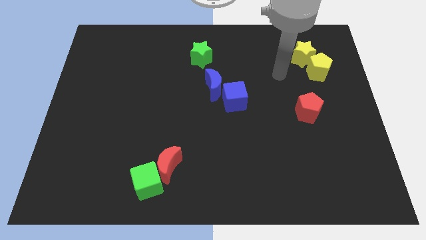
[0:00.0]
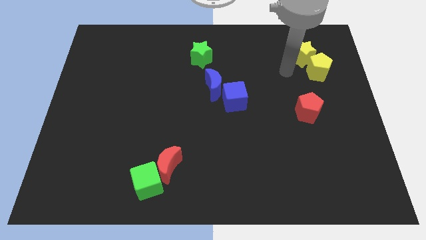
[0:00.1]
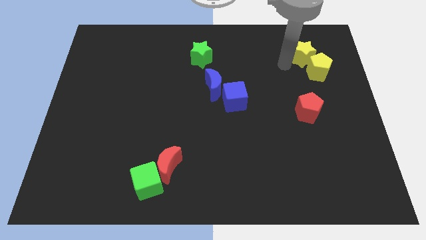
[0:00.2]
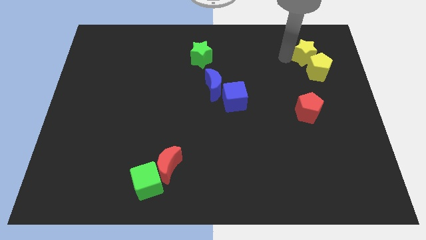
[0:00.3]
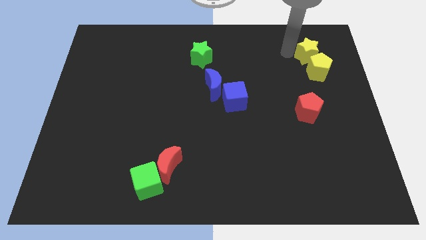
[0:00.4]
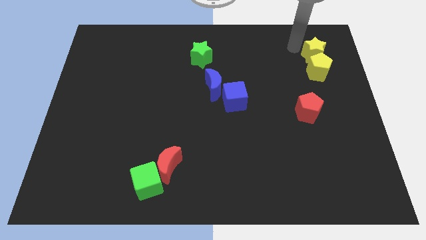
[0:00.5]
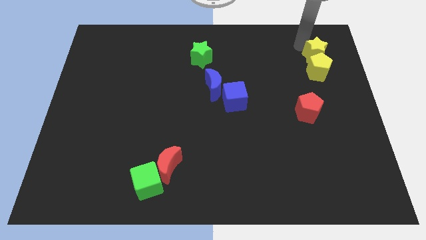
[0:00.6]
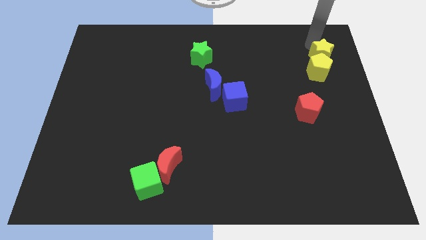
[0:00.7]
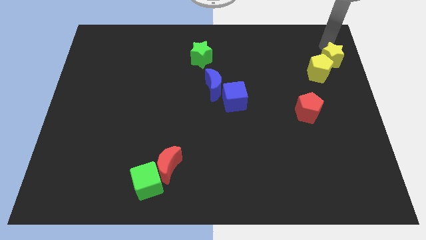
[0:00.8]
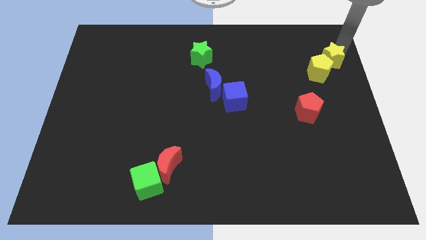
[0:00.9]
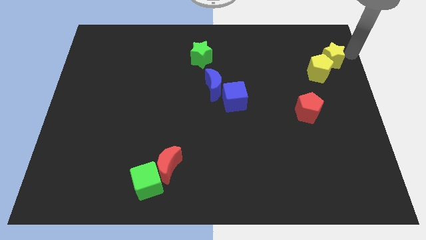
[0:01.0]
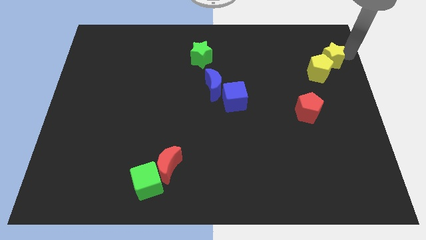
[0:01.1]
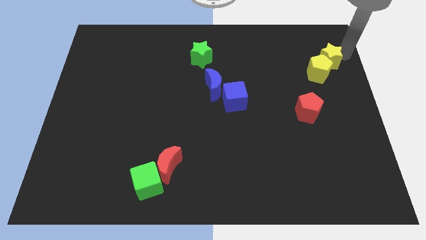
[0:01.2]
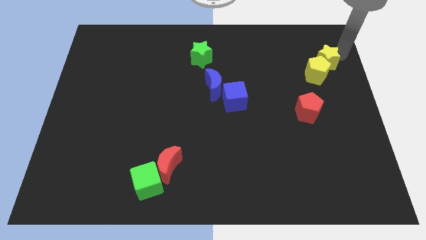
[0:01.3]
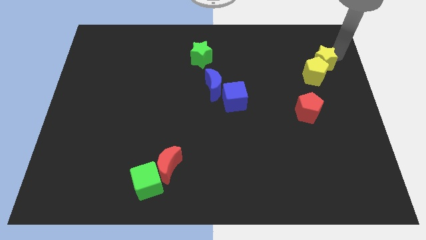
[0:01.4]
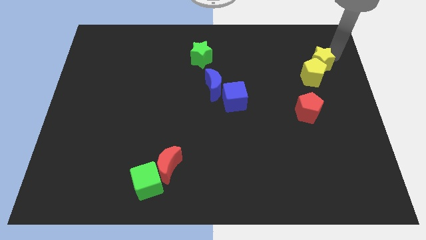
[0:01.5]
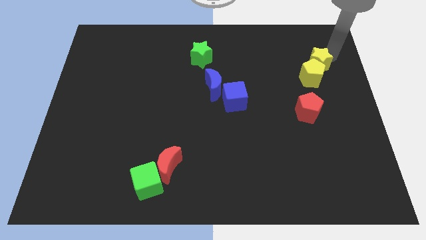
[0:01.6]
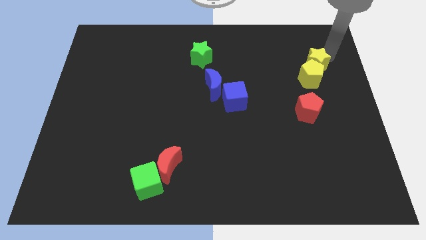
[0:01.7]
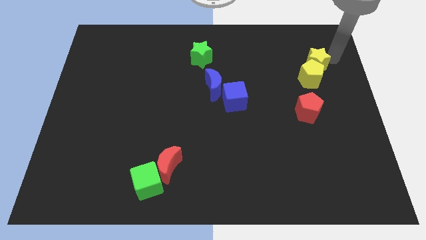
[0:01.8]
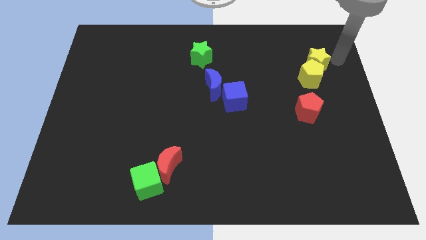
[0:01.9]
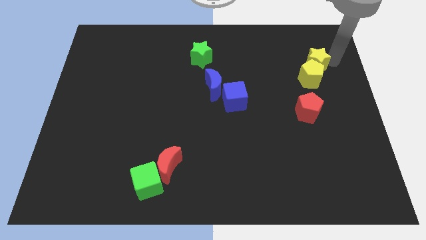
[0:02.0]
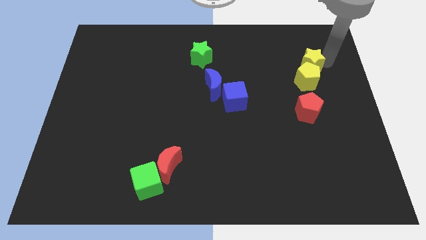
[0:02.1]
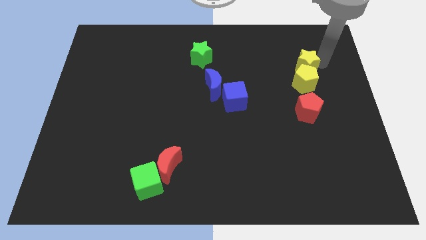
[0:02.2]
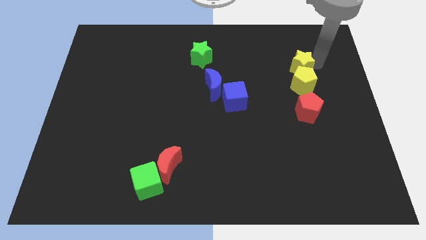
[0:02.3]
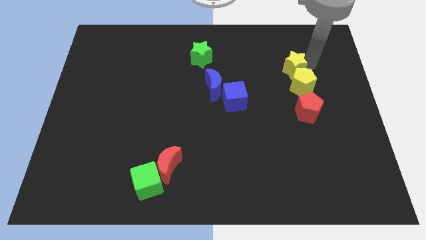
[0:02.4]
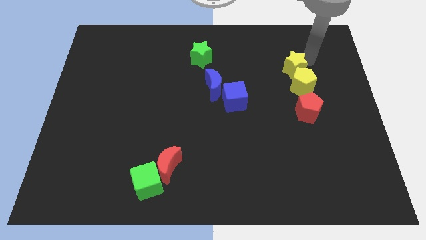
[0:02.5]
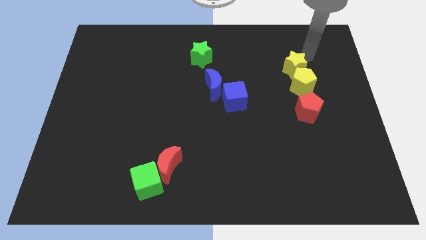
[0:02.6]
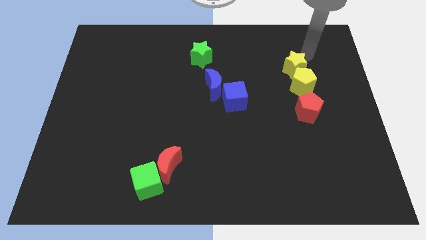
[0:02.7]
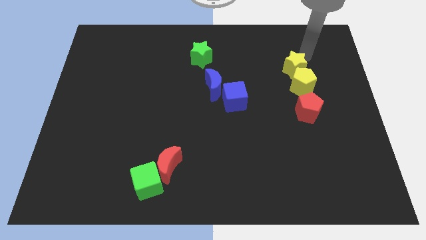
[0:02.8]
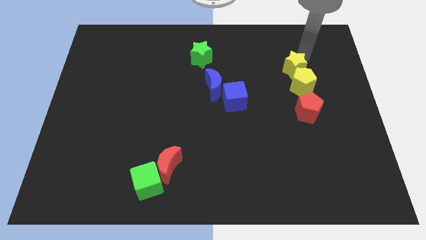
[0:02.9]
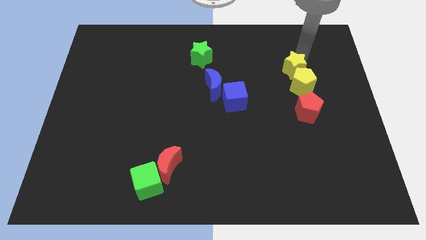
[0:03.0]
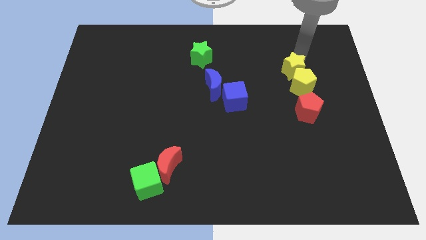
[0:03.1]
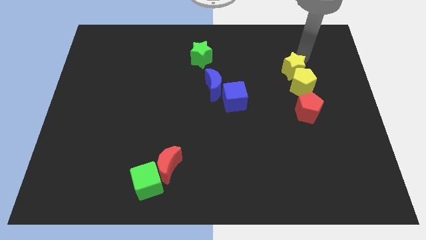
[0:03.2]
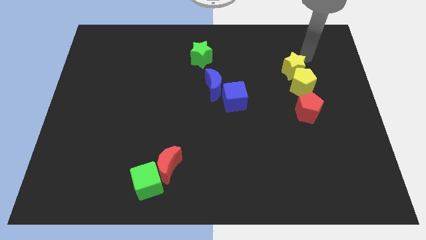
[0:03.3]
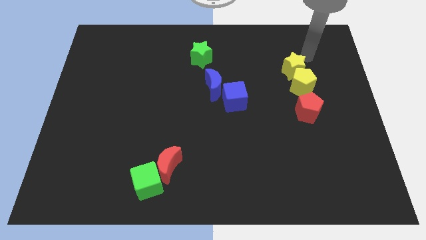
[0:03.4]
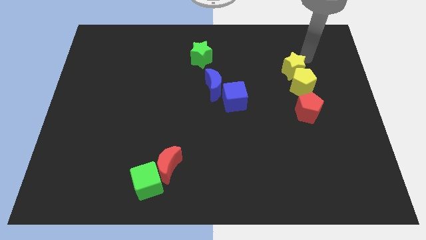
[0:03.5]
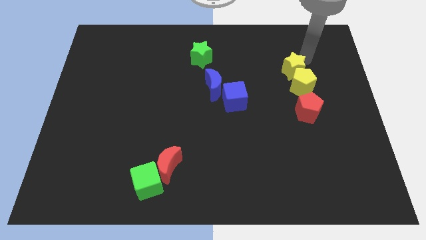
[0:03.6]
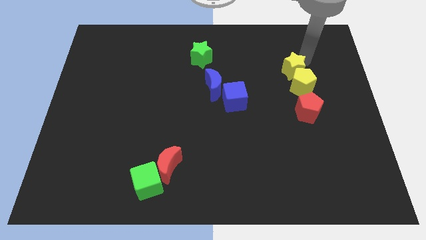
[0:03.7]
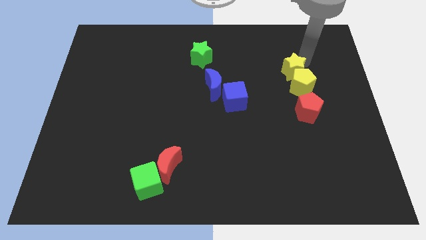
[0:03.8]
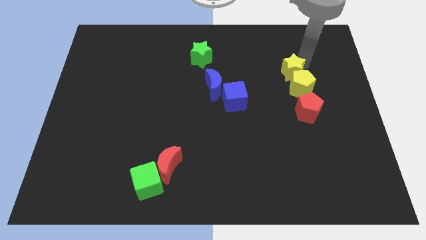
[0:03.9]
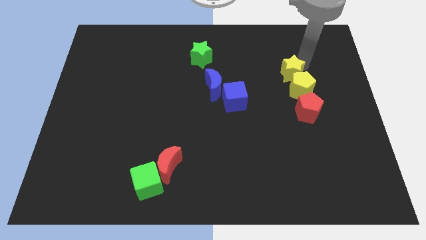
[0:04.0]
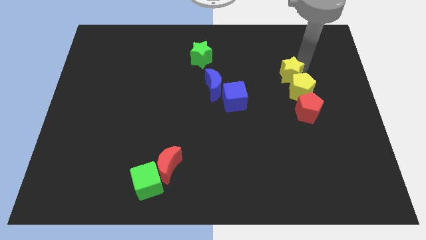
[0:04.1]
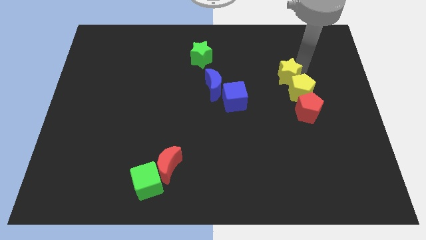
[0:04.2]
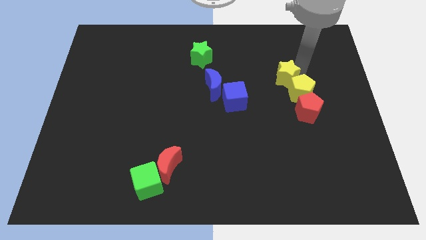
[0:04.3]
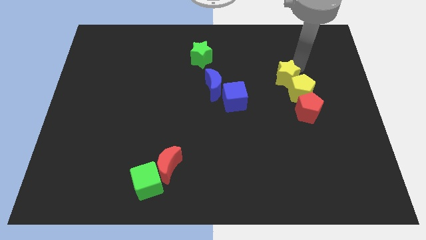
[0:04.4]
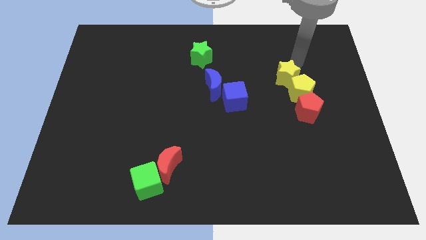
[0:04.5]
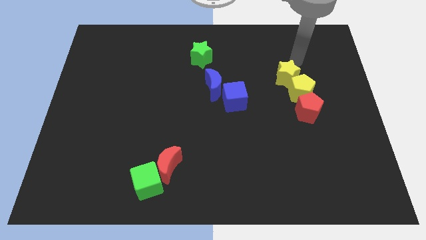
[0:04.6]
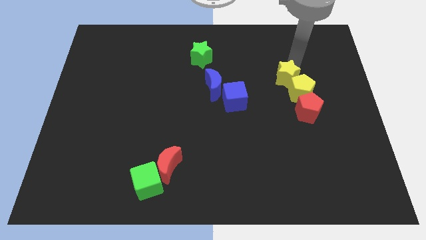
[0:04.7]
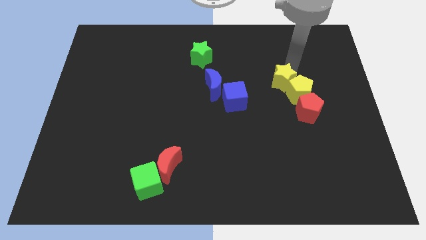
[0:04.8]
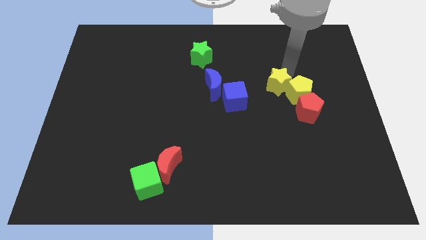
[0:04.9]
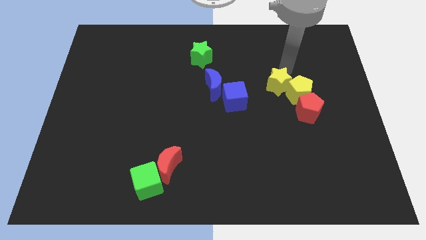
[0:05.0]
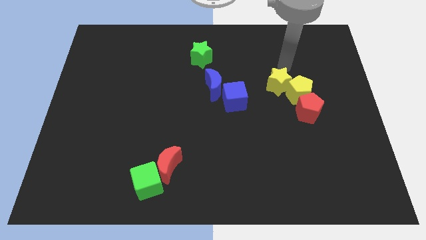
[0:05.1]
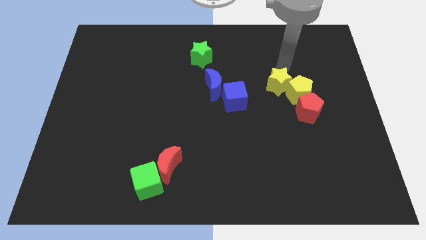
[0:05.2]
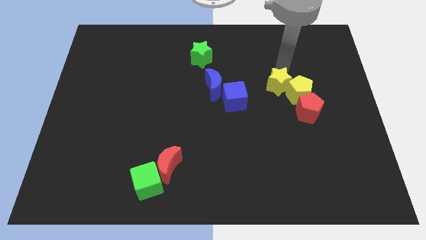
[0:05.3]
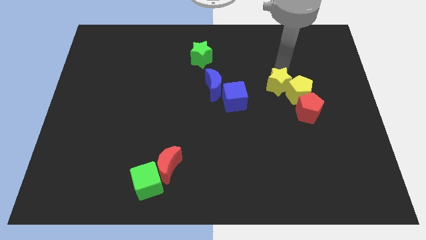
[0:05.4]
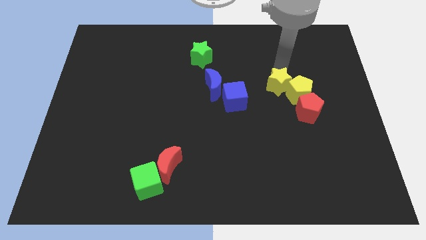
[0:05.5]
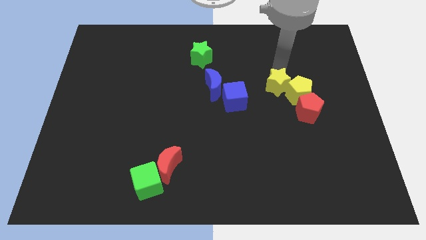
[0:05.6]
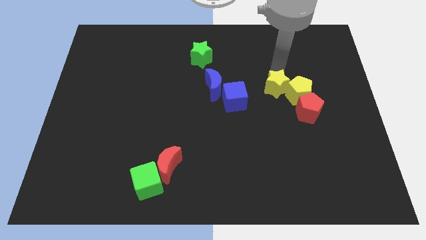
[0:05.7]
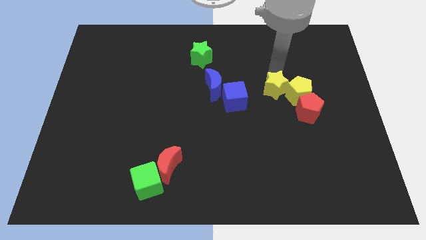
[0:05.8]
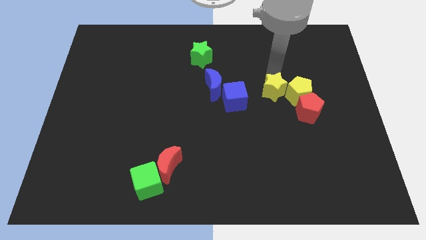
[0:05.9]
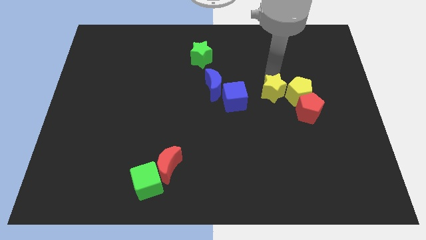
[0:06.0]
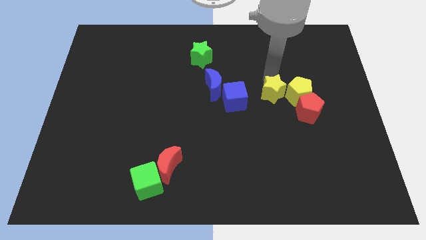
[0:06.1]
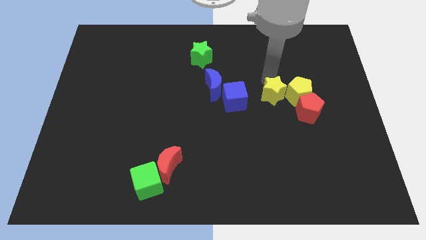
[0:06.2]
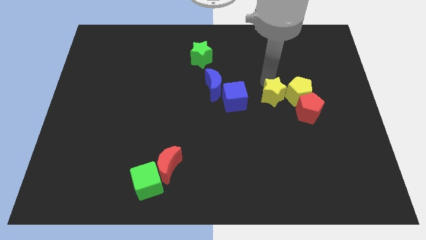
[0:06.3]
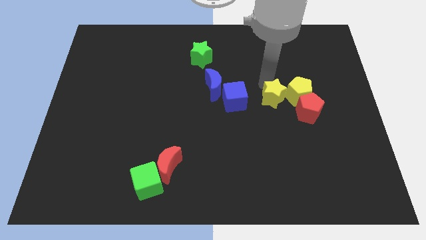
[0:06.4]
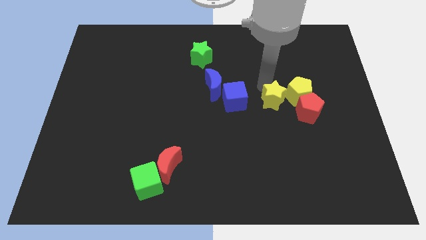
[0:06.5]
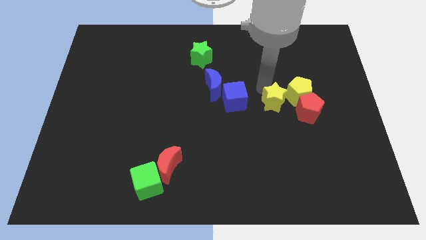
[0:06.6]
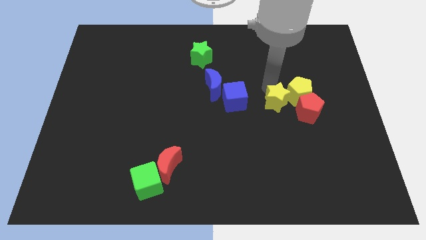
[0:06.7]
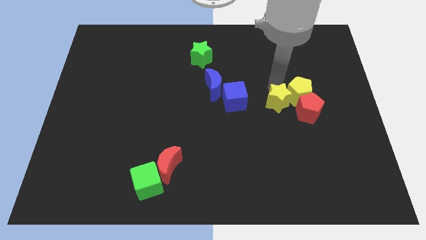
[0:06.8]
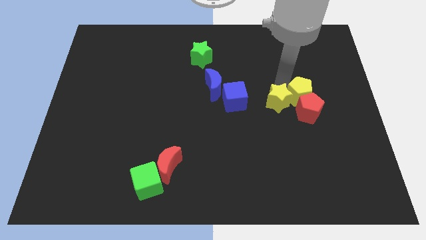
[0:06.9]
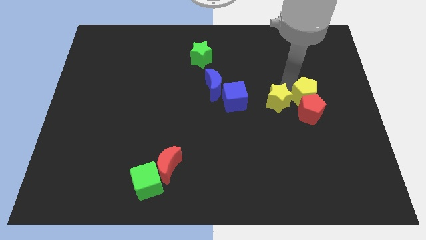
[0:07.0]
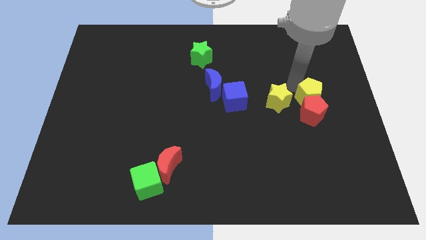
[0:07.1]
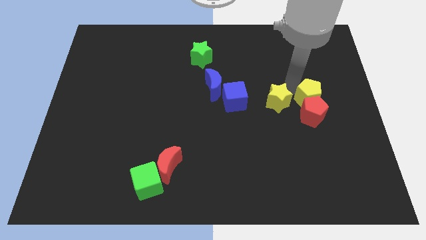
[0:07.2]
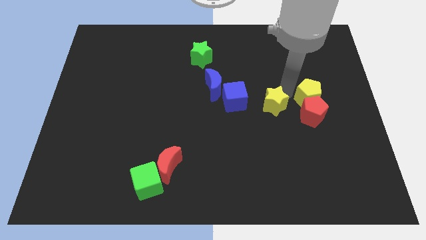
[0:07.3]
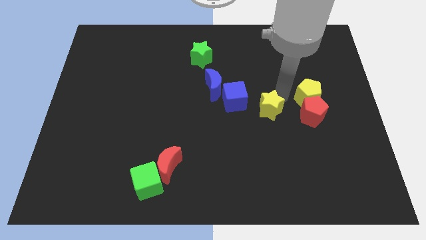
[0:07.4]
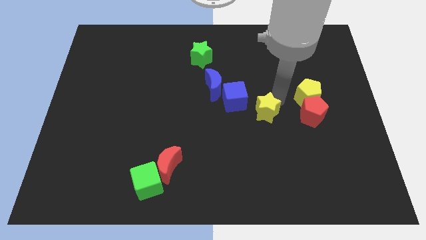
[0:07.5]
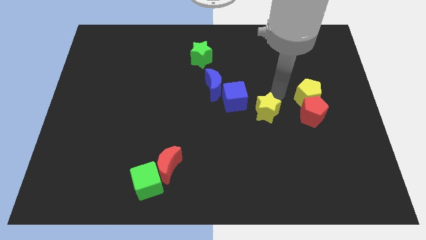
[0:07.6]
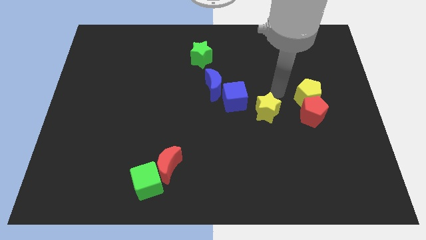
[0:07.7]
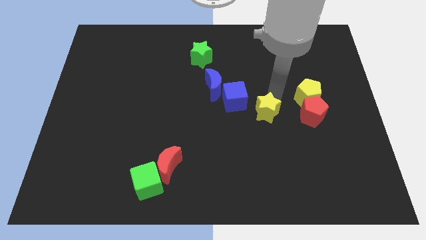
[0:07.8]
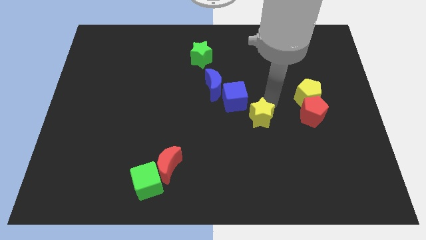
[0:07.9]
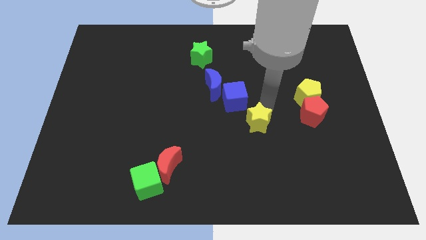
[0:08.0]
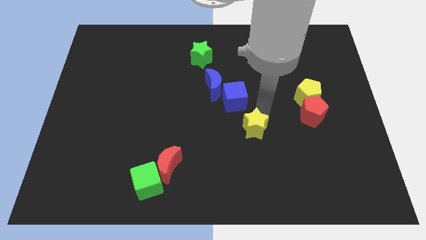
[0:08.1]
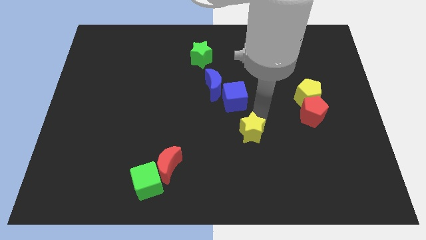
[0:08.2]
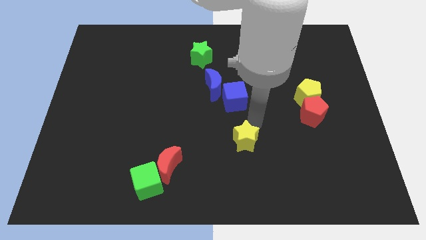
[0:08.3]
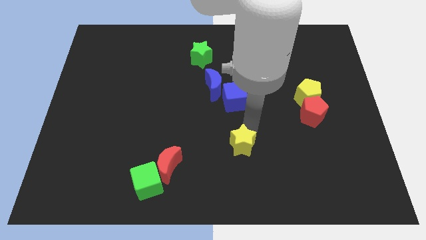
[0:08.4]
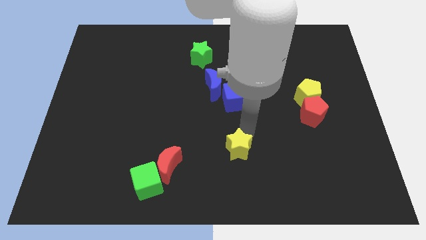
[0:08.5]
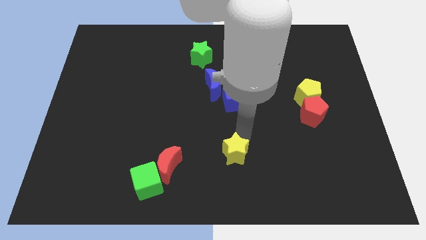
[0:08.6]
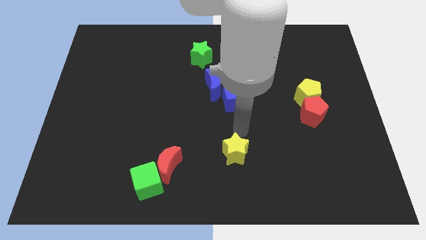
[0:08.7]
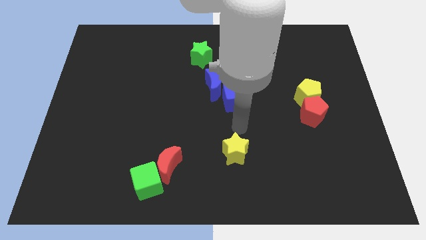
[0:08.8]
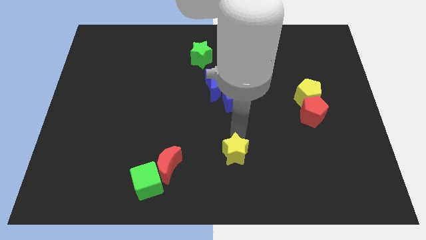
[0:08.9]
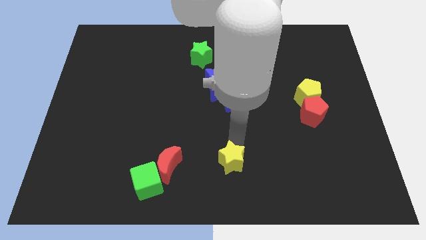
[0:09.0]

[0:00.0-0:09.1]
push the yellow star to the bottom
